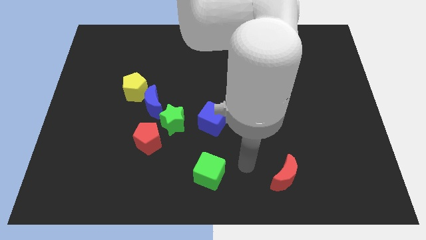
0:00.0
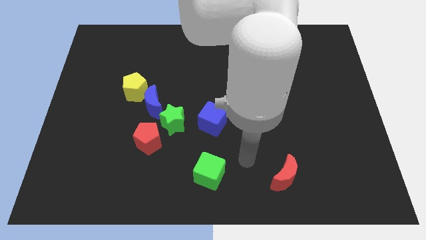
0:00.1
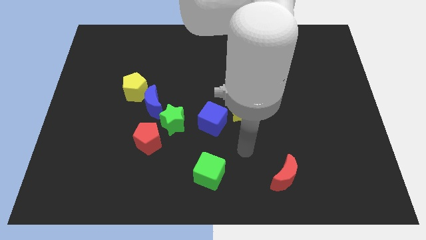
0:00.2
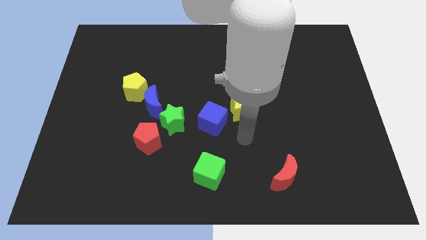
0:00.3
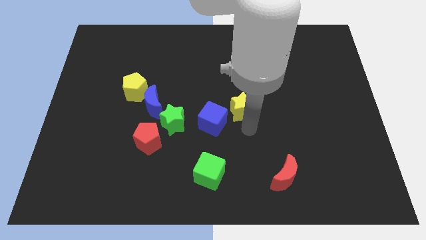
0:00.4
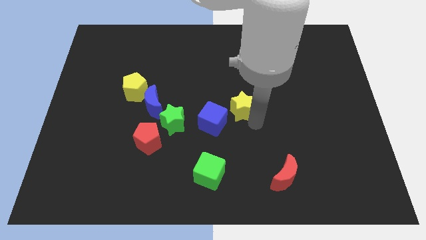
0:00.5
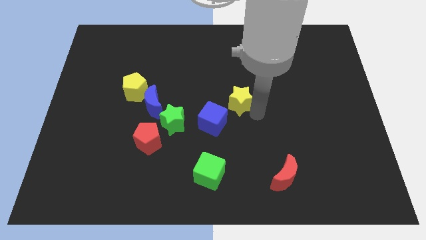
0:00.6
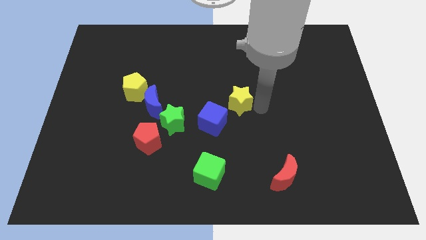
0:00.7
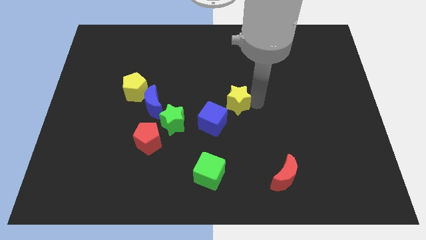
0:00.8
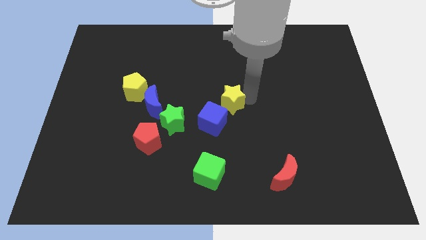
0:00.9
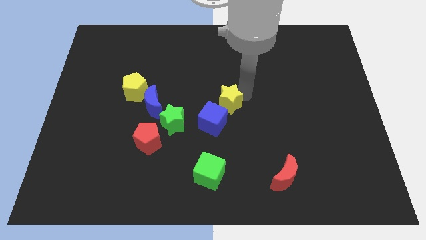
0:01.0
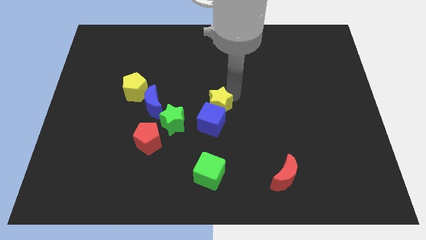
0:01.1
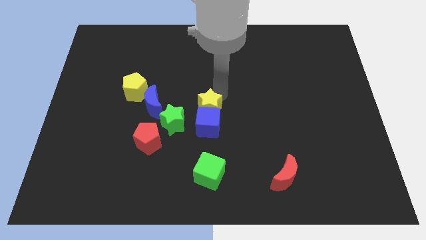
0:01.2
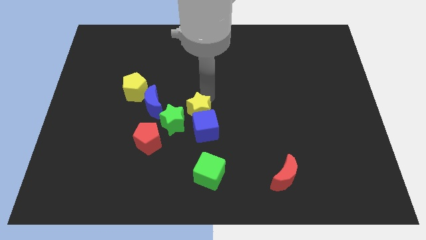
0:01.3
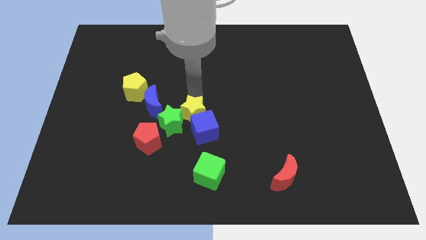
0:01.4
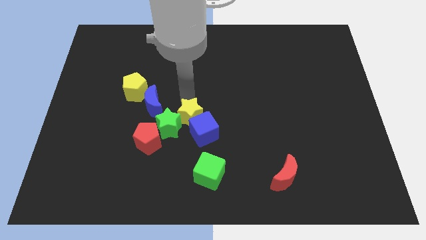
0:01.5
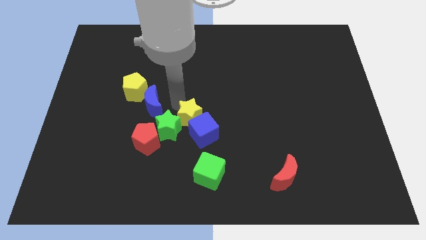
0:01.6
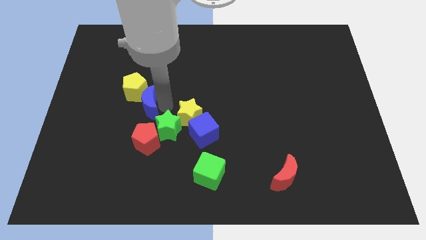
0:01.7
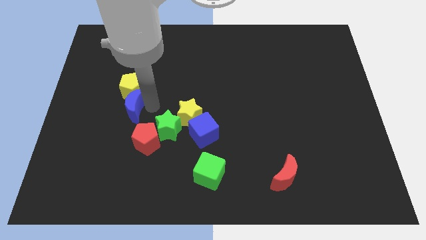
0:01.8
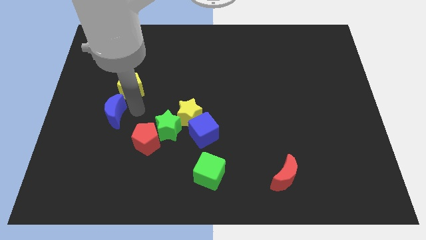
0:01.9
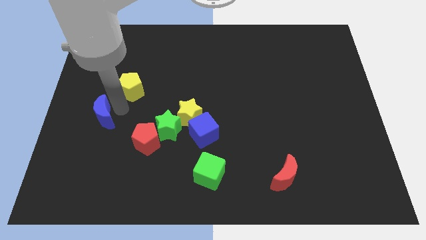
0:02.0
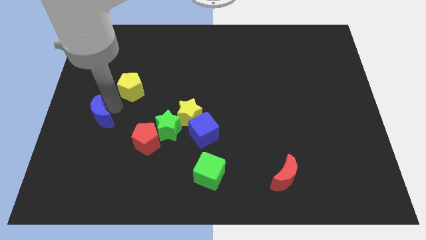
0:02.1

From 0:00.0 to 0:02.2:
separate the yellow pentagon from the blue moon

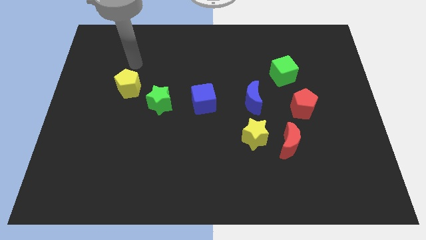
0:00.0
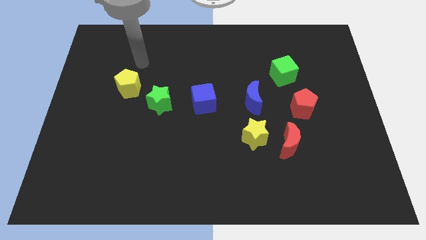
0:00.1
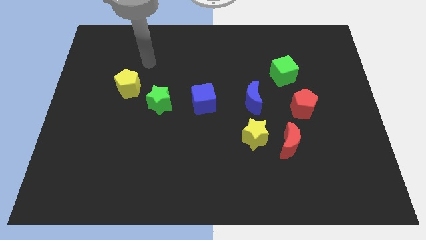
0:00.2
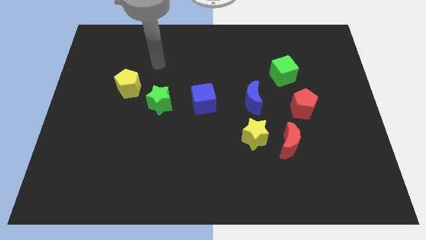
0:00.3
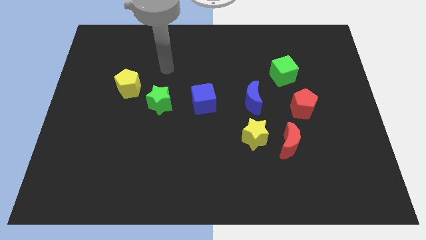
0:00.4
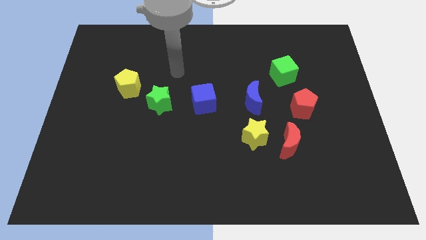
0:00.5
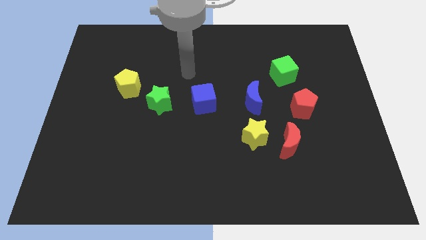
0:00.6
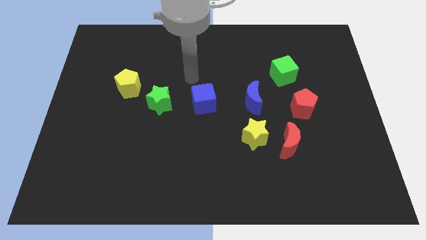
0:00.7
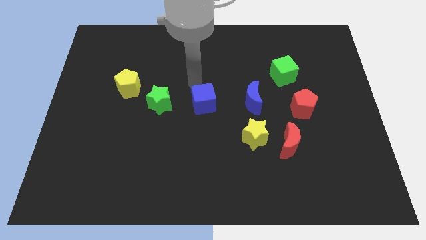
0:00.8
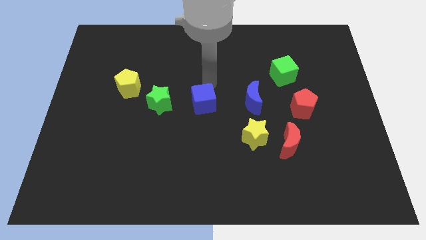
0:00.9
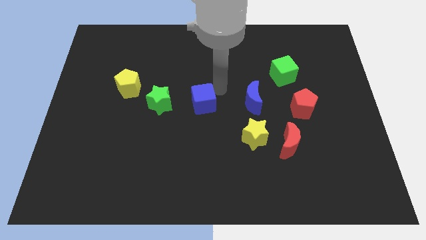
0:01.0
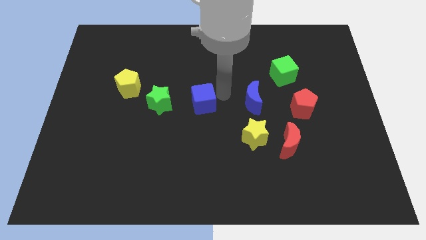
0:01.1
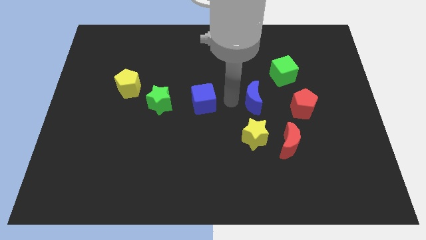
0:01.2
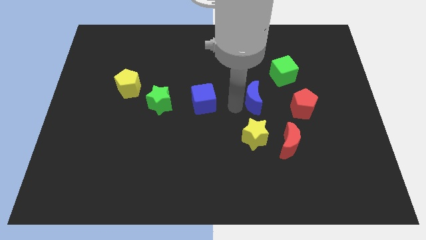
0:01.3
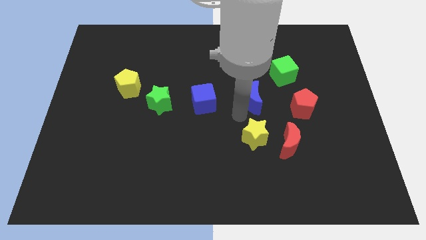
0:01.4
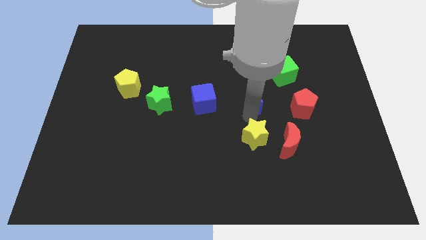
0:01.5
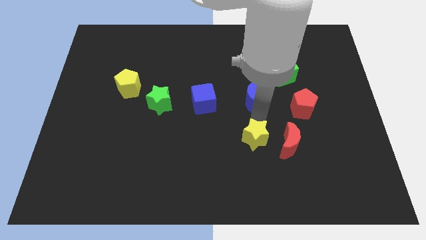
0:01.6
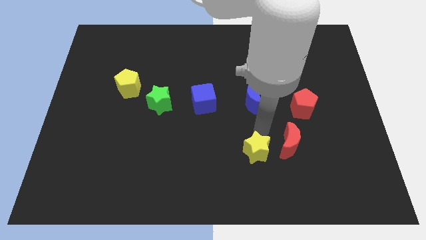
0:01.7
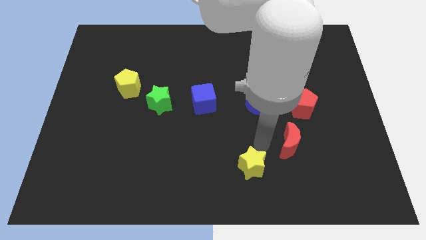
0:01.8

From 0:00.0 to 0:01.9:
separate the red moon from the yellow star

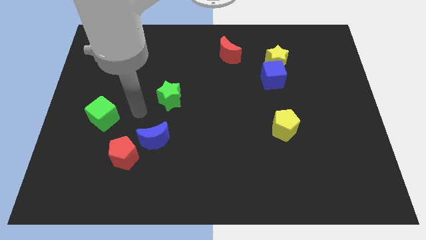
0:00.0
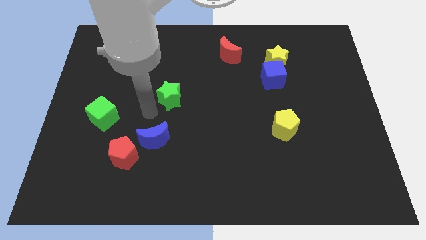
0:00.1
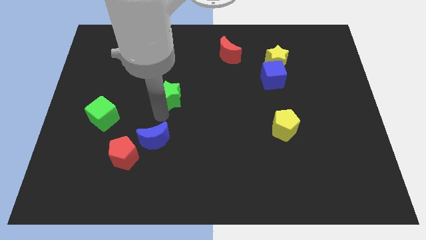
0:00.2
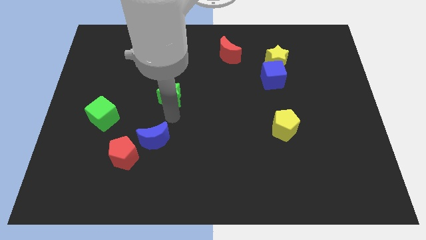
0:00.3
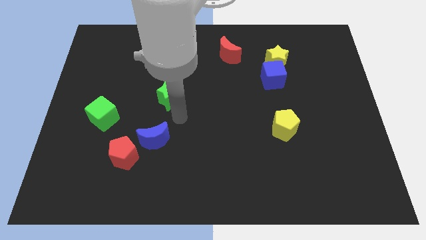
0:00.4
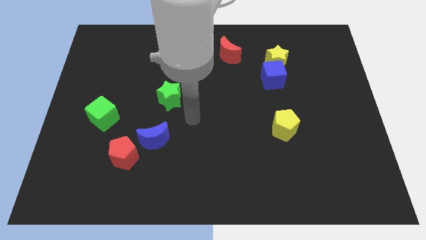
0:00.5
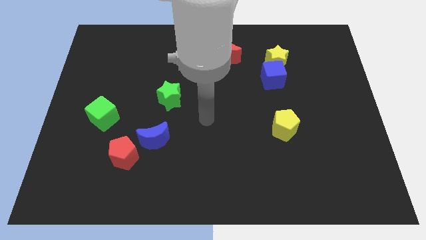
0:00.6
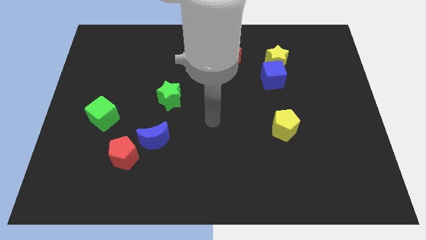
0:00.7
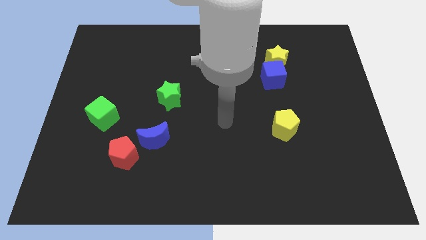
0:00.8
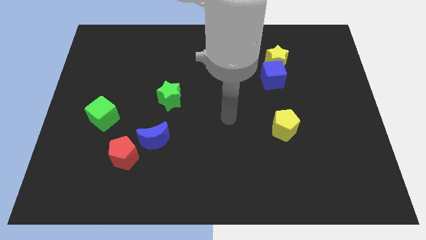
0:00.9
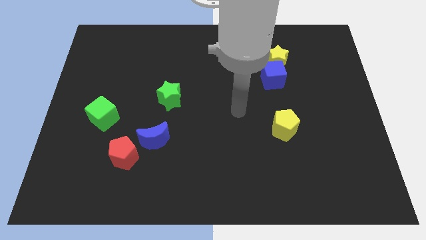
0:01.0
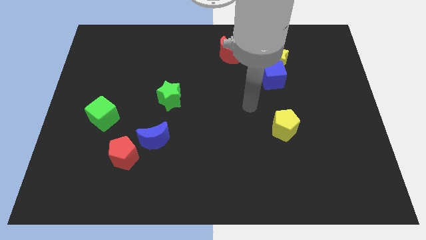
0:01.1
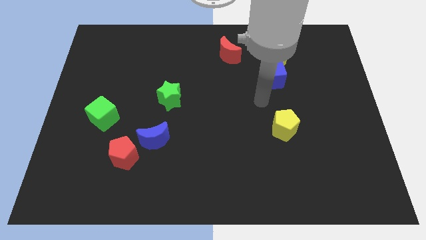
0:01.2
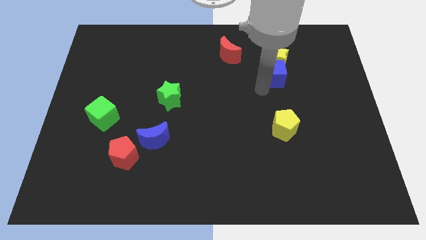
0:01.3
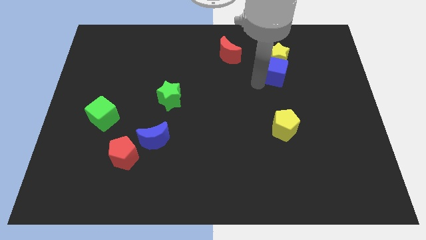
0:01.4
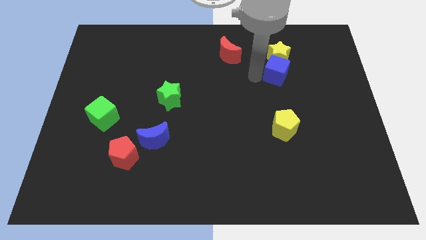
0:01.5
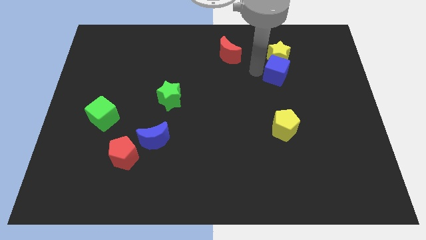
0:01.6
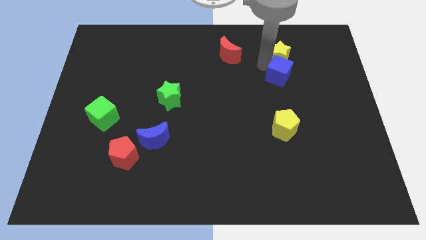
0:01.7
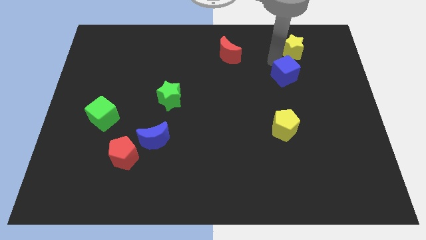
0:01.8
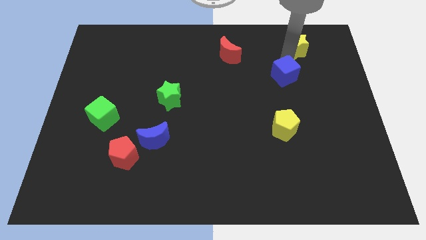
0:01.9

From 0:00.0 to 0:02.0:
separate the blue cube from the yellow star

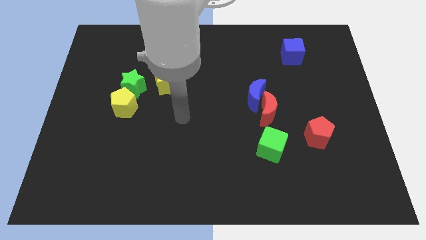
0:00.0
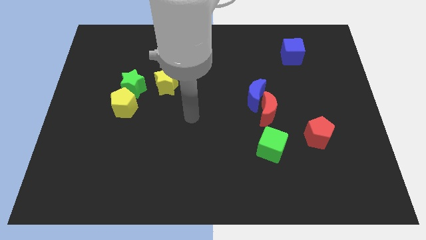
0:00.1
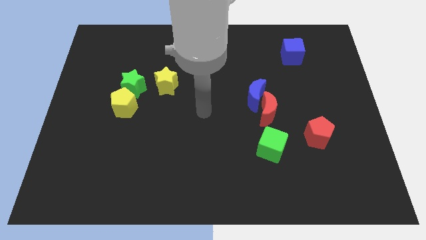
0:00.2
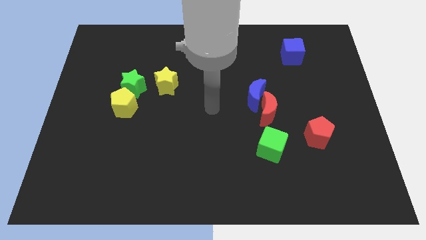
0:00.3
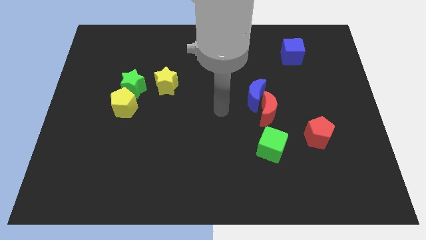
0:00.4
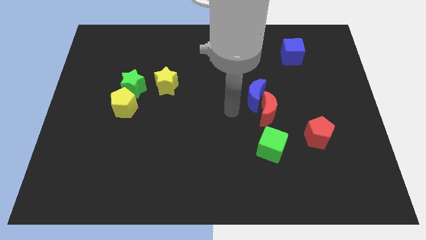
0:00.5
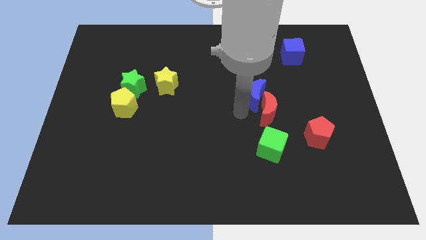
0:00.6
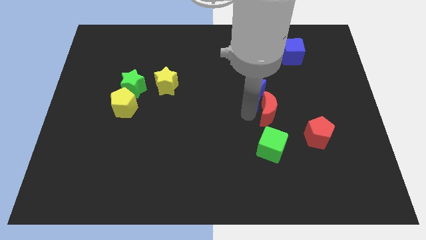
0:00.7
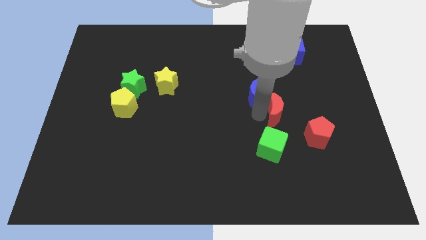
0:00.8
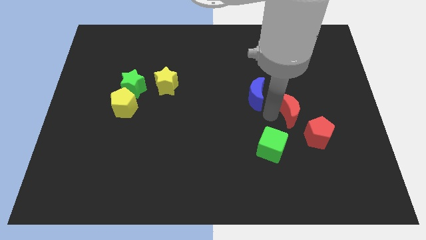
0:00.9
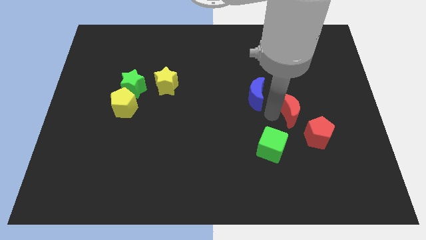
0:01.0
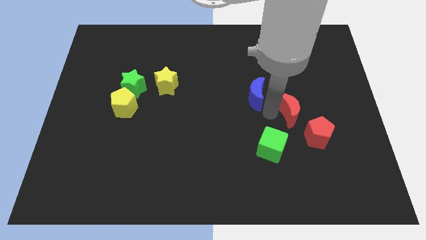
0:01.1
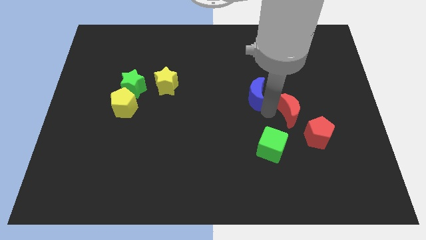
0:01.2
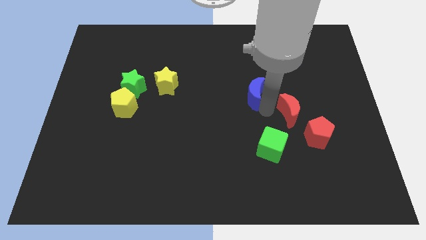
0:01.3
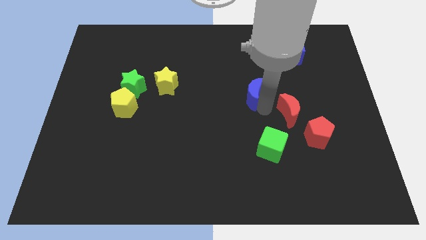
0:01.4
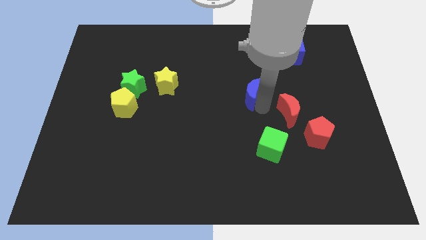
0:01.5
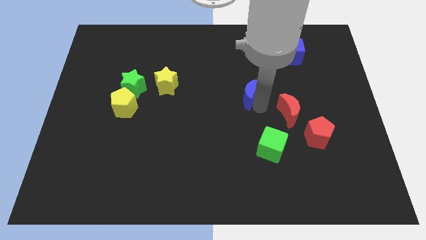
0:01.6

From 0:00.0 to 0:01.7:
move the blue moon away from the red moon

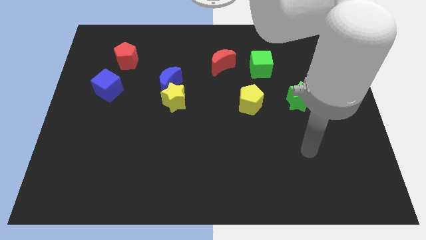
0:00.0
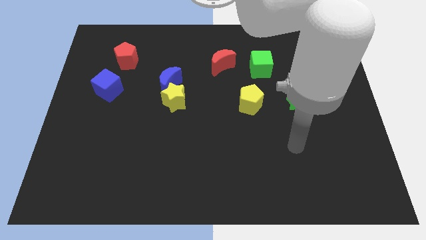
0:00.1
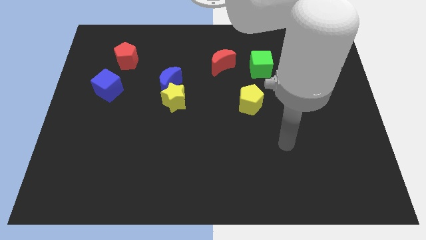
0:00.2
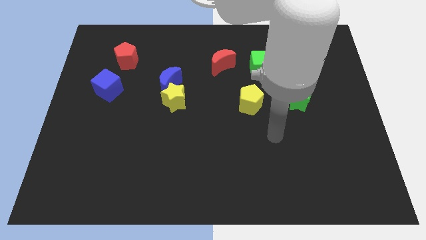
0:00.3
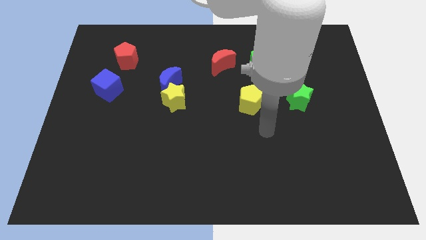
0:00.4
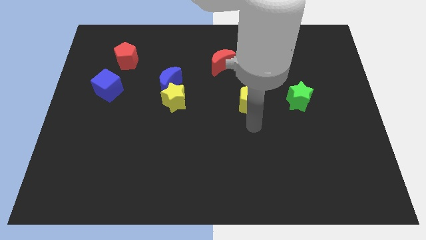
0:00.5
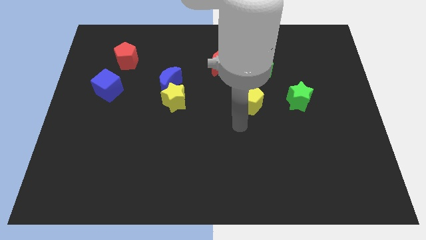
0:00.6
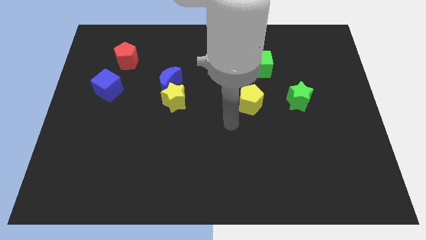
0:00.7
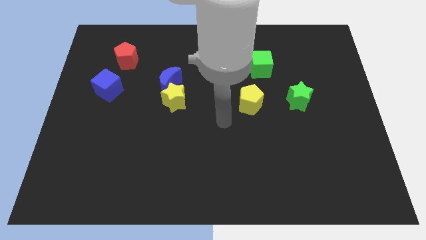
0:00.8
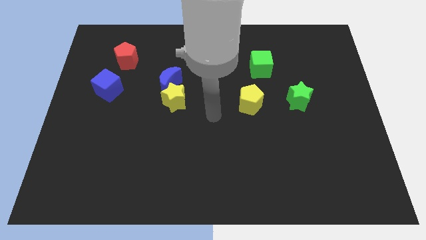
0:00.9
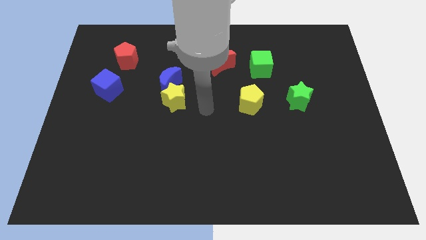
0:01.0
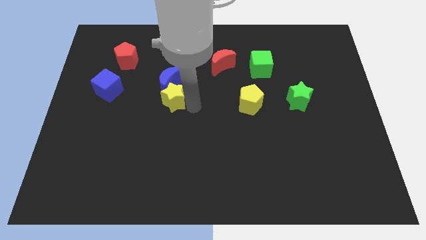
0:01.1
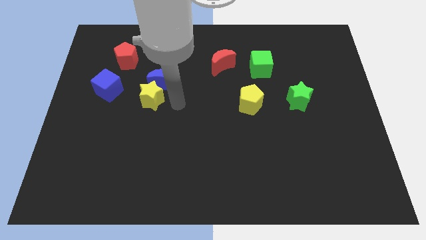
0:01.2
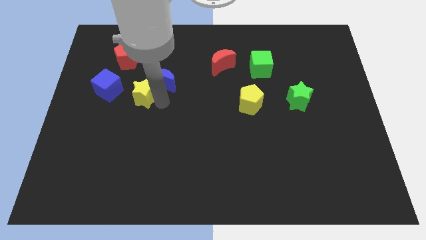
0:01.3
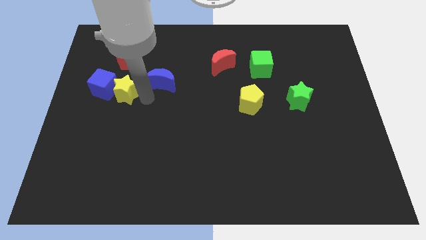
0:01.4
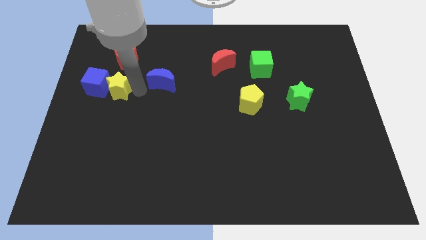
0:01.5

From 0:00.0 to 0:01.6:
move the blue moon away from the yellow star

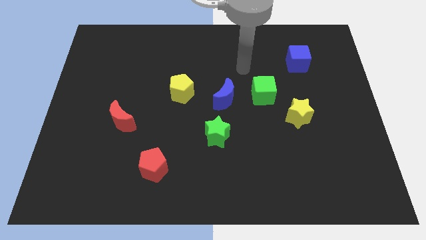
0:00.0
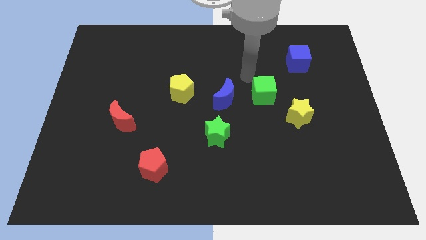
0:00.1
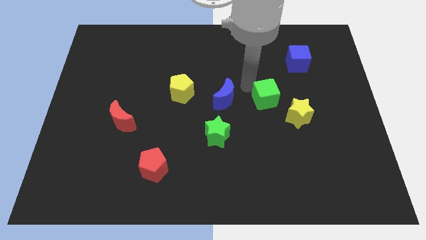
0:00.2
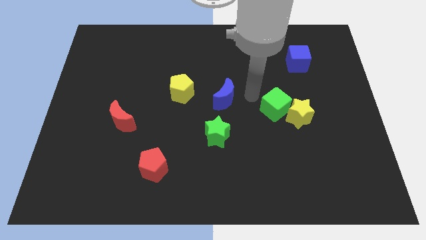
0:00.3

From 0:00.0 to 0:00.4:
separate the blue moon from the green cube
